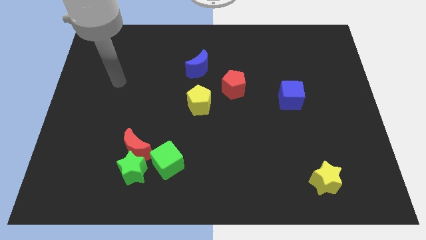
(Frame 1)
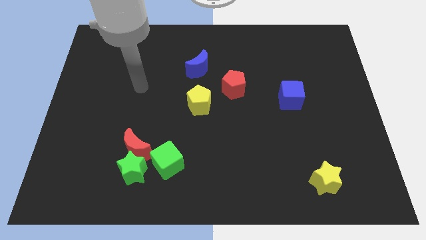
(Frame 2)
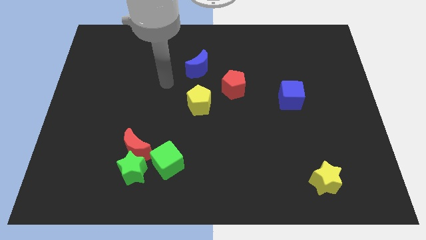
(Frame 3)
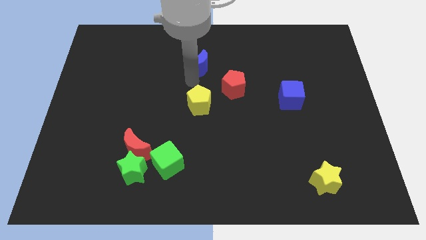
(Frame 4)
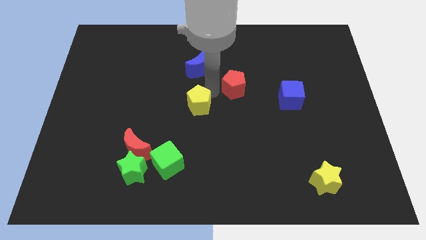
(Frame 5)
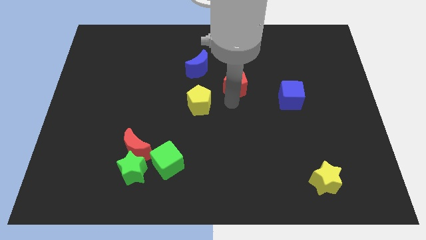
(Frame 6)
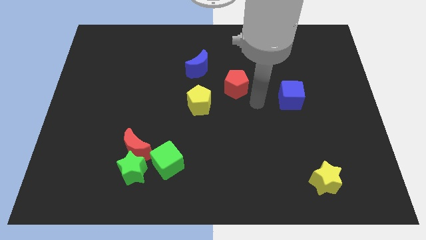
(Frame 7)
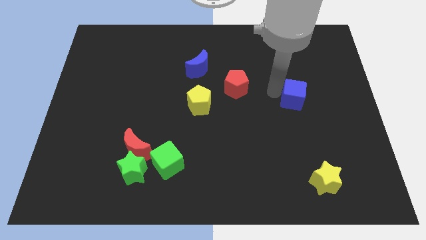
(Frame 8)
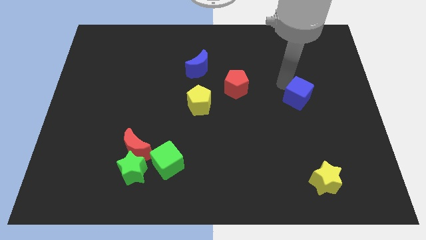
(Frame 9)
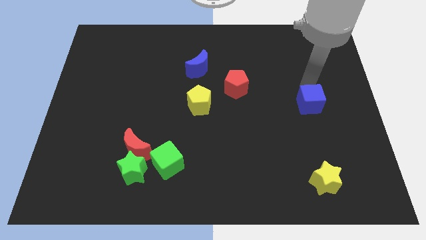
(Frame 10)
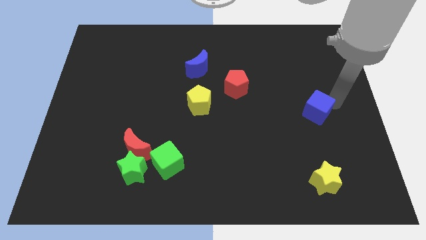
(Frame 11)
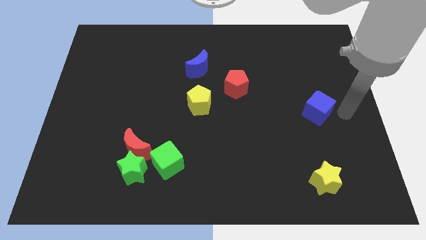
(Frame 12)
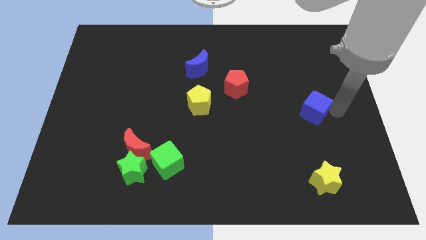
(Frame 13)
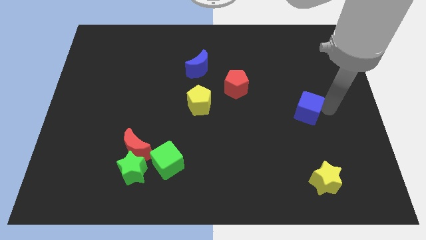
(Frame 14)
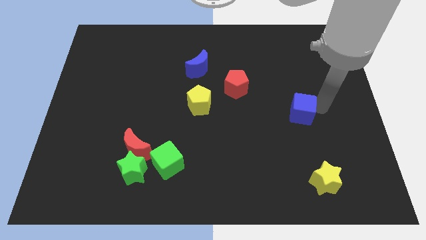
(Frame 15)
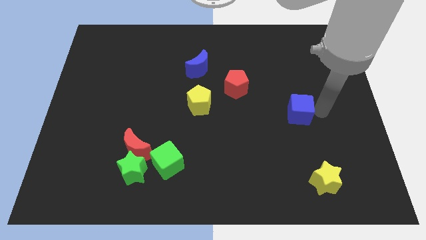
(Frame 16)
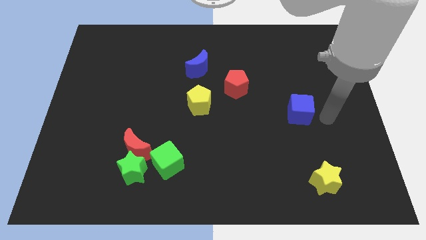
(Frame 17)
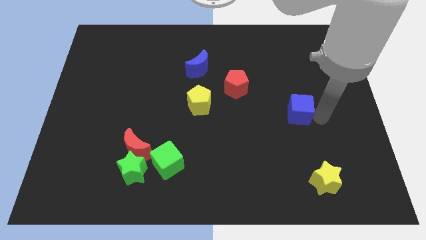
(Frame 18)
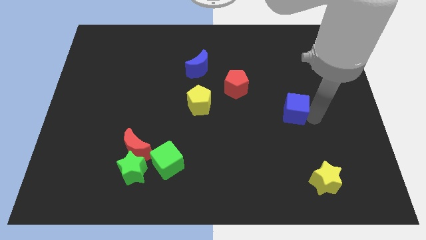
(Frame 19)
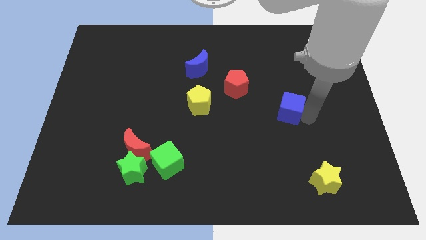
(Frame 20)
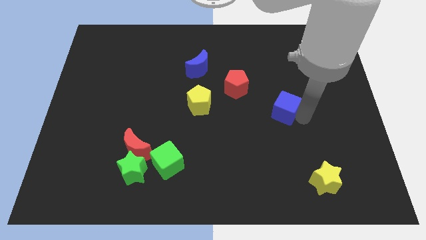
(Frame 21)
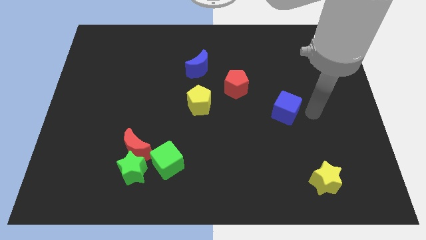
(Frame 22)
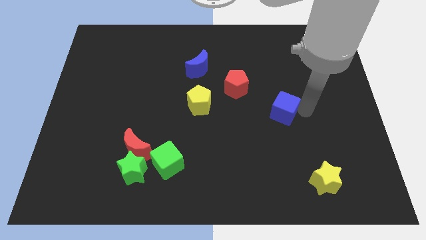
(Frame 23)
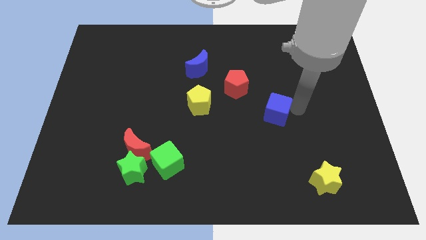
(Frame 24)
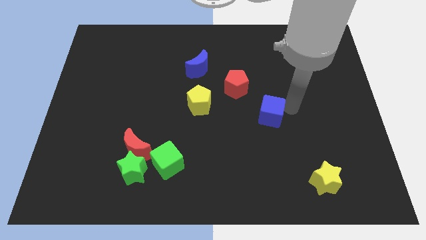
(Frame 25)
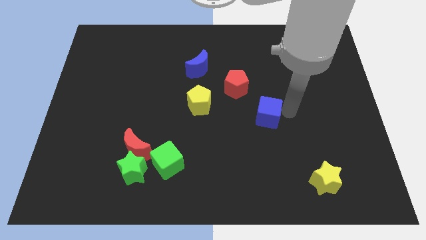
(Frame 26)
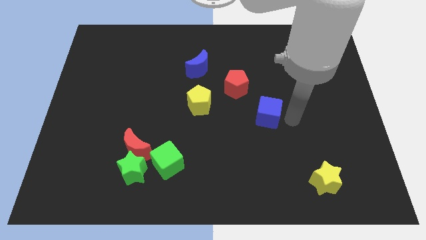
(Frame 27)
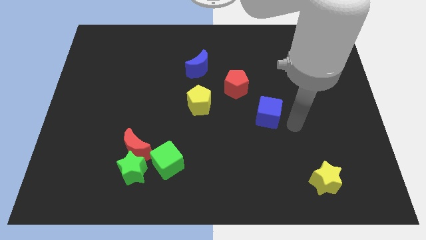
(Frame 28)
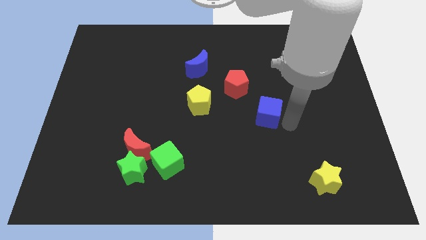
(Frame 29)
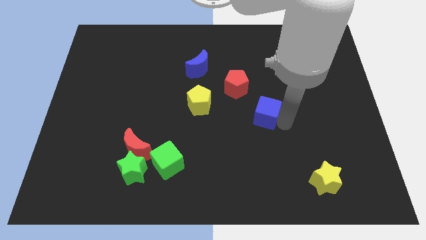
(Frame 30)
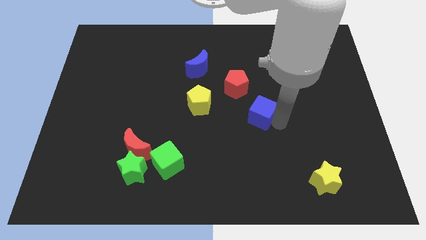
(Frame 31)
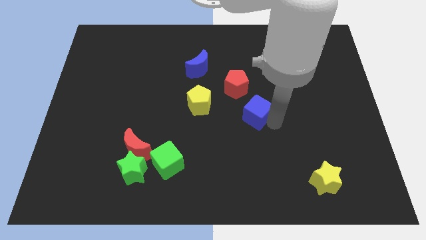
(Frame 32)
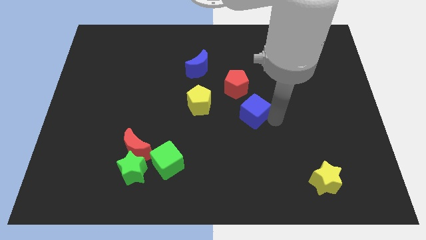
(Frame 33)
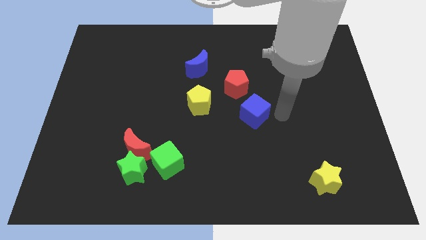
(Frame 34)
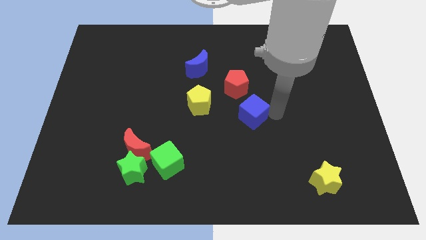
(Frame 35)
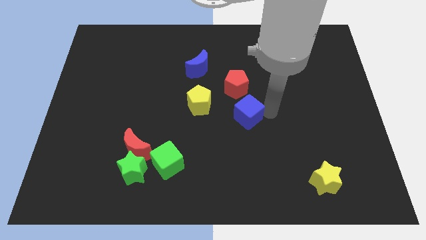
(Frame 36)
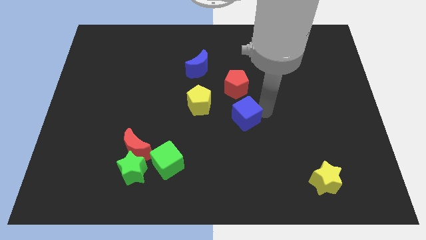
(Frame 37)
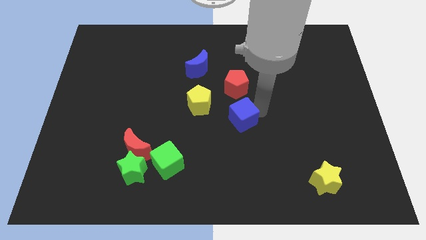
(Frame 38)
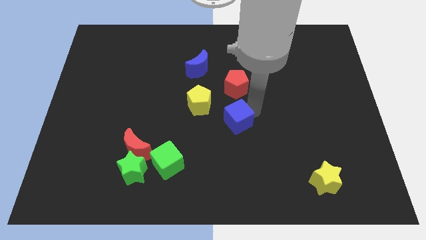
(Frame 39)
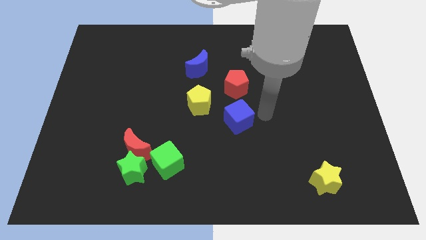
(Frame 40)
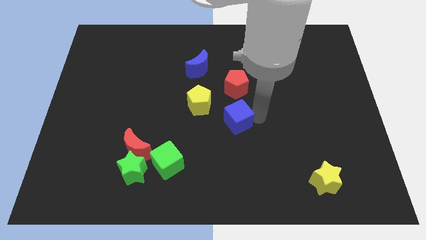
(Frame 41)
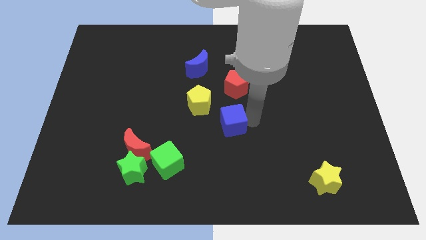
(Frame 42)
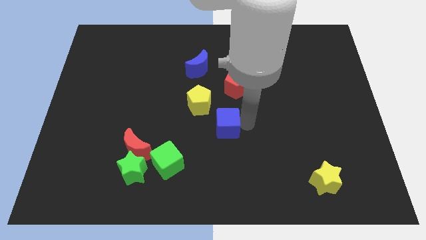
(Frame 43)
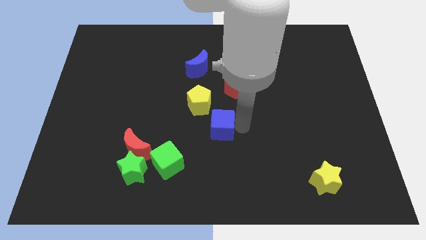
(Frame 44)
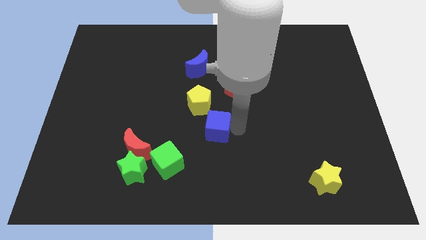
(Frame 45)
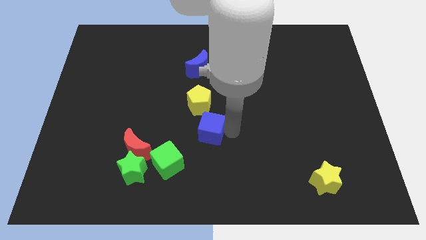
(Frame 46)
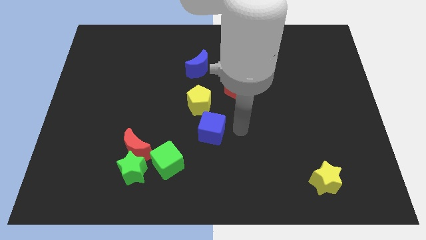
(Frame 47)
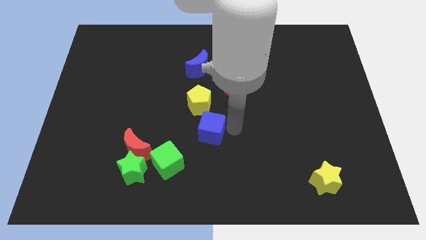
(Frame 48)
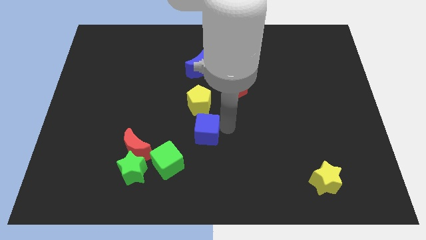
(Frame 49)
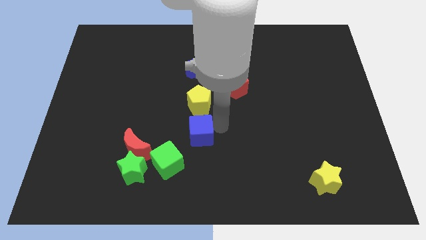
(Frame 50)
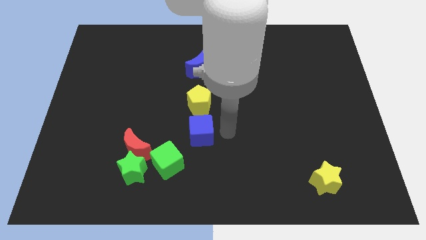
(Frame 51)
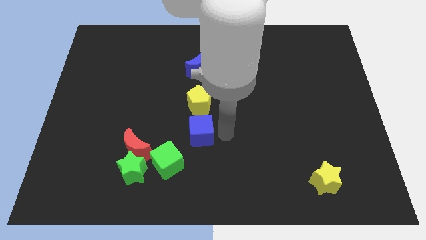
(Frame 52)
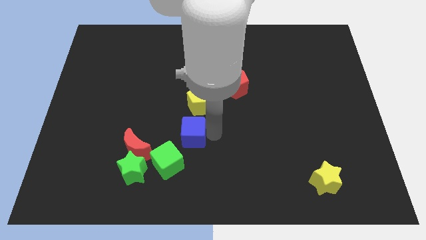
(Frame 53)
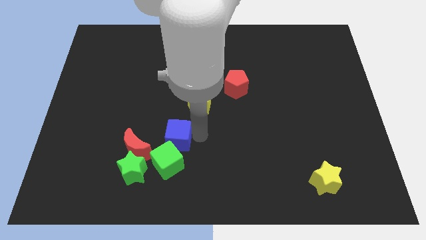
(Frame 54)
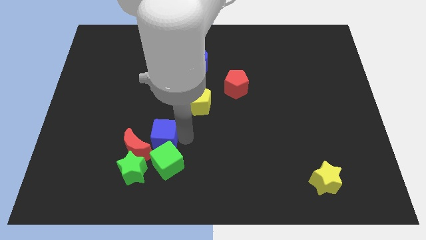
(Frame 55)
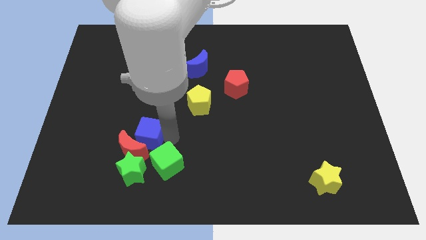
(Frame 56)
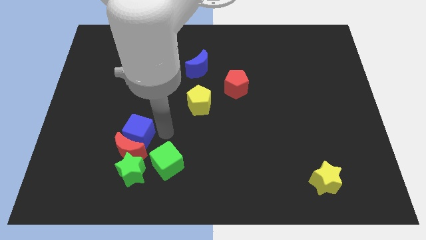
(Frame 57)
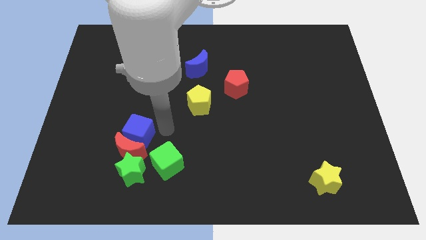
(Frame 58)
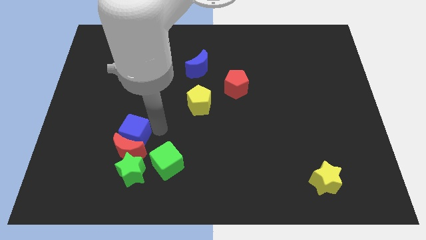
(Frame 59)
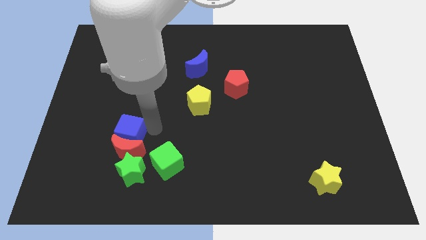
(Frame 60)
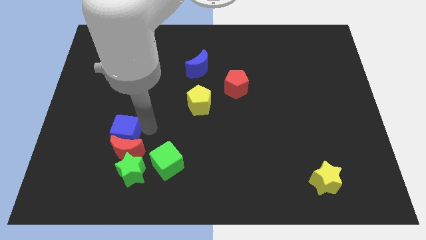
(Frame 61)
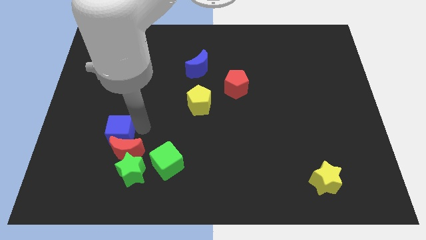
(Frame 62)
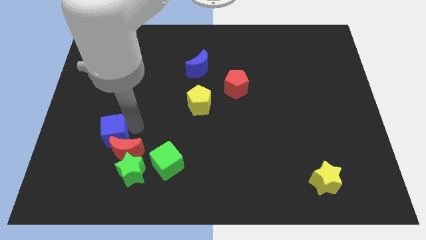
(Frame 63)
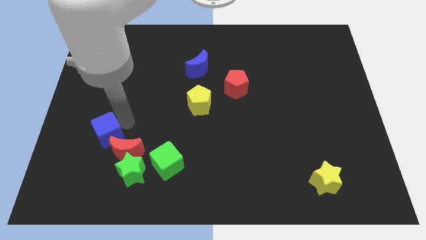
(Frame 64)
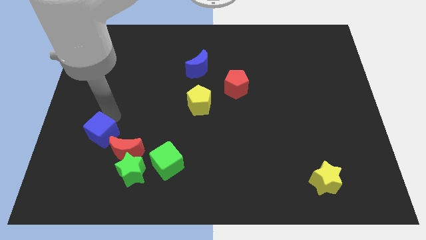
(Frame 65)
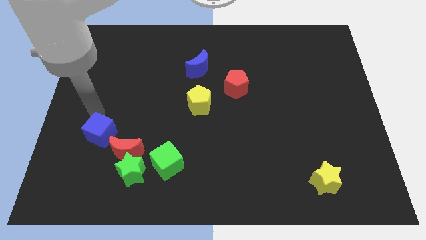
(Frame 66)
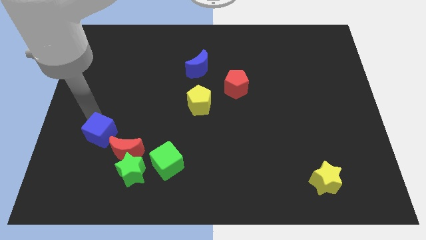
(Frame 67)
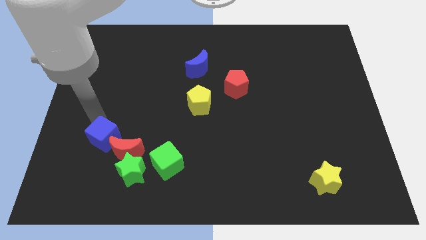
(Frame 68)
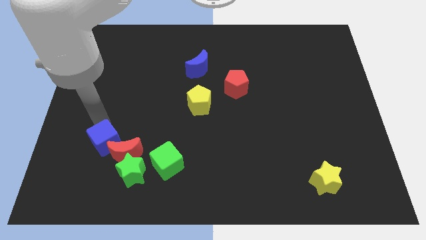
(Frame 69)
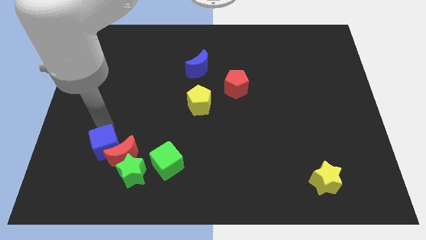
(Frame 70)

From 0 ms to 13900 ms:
put the blue cube to the left side of the green cube

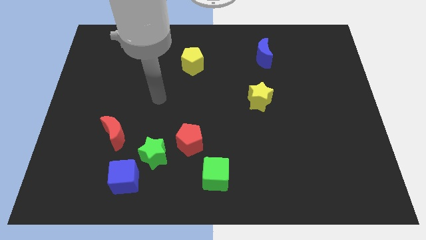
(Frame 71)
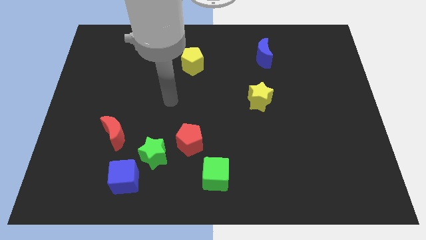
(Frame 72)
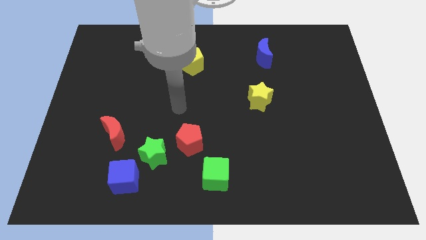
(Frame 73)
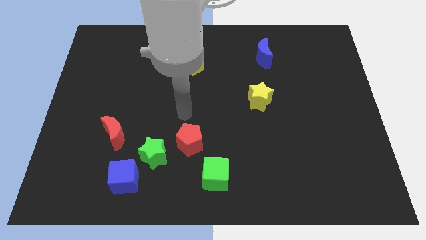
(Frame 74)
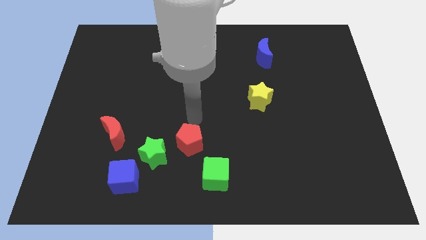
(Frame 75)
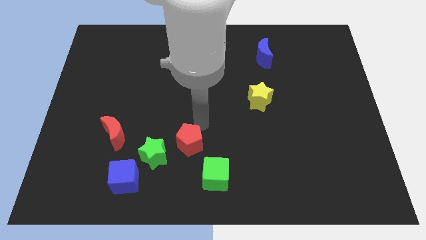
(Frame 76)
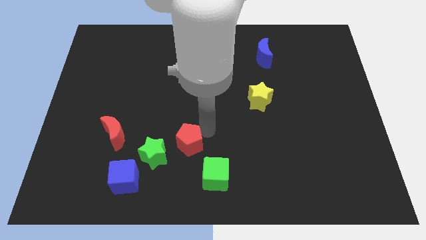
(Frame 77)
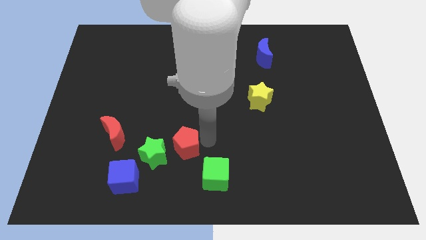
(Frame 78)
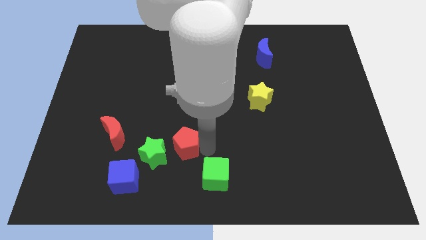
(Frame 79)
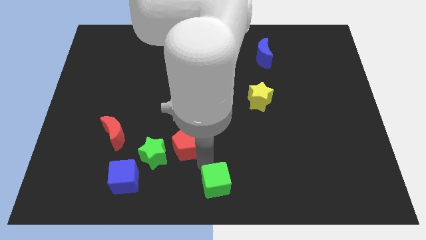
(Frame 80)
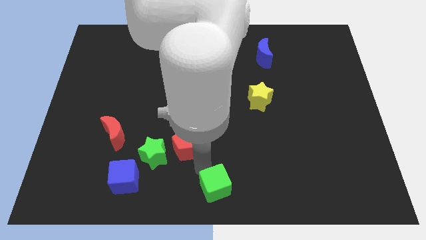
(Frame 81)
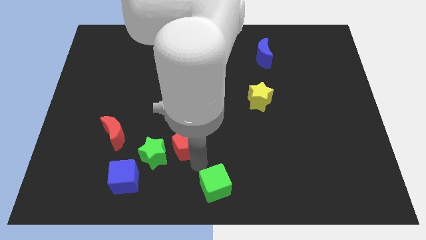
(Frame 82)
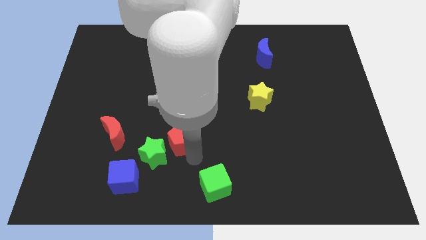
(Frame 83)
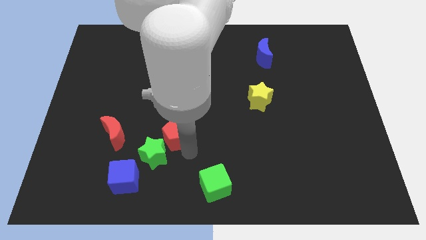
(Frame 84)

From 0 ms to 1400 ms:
slide the red pentagon above the green star
